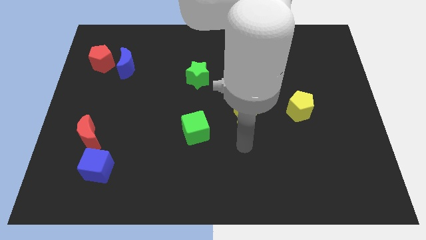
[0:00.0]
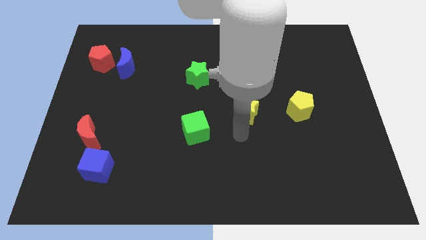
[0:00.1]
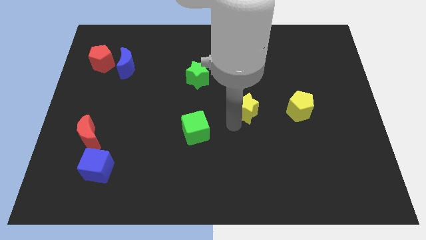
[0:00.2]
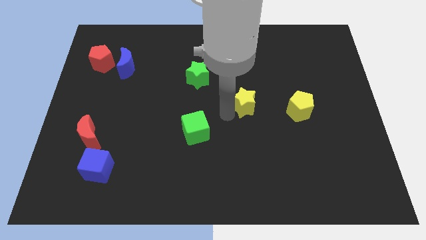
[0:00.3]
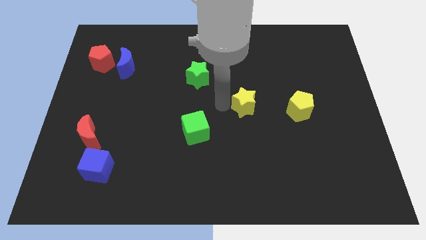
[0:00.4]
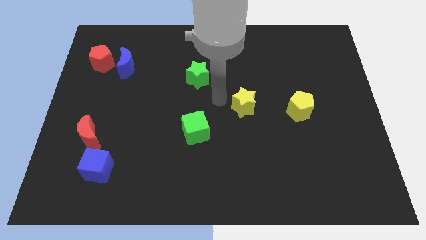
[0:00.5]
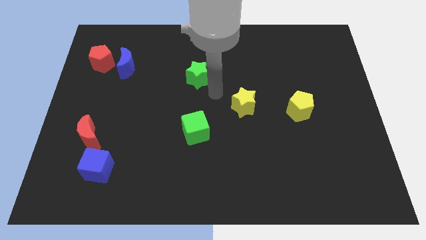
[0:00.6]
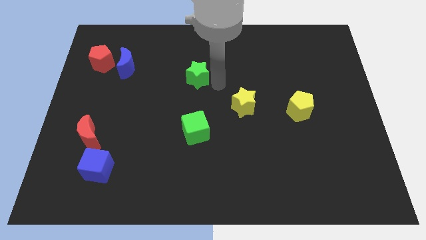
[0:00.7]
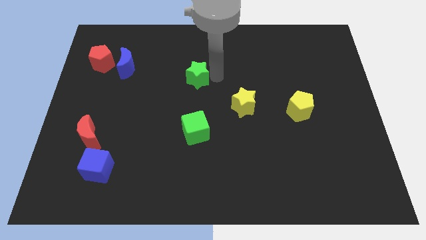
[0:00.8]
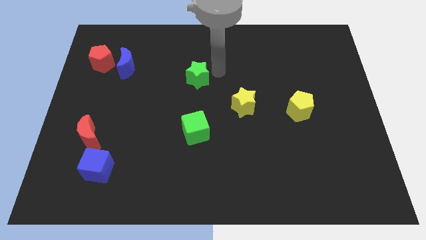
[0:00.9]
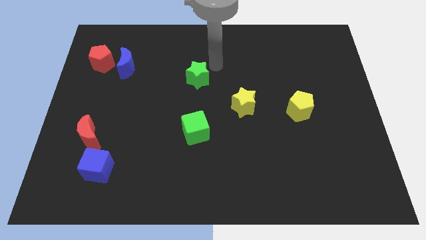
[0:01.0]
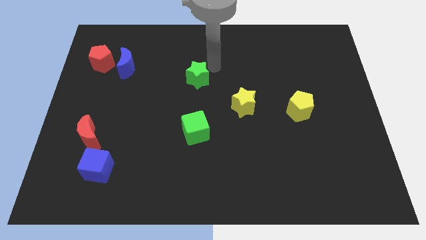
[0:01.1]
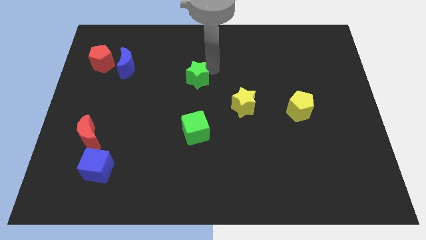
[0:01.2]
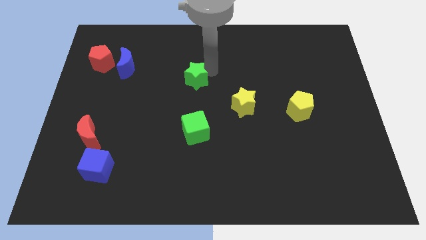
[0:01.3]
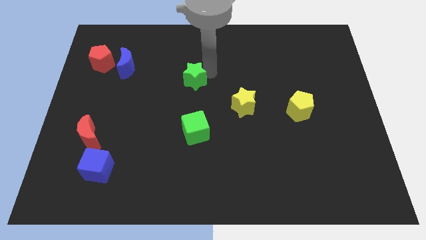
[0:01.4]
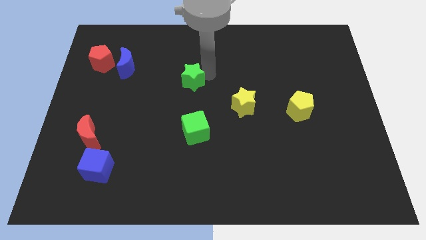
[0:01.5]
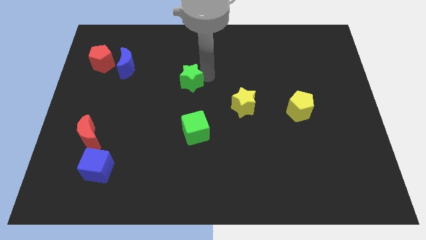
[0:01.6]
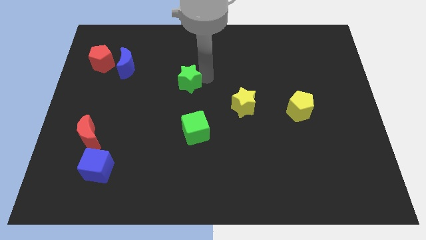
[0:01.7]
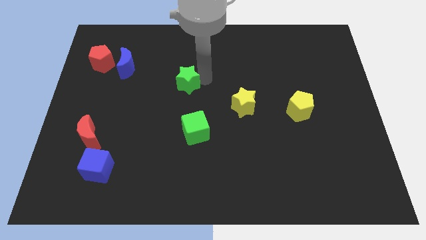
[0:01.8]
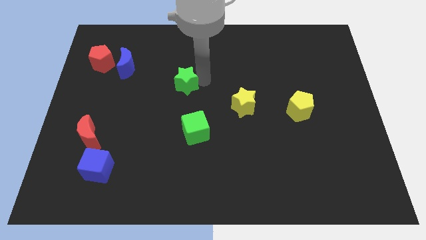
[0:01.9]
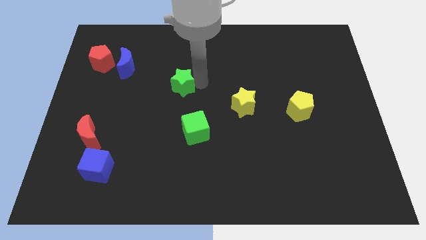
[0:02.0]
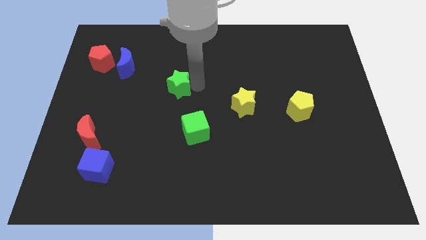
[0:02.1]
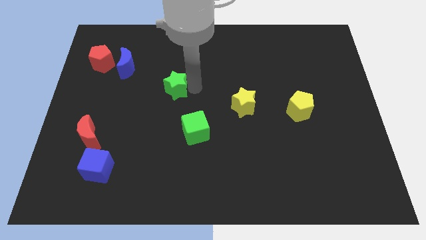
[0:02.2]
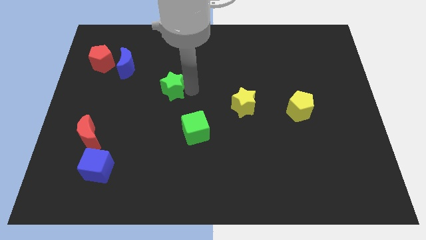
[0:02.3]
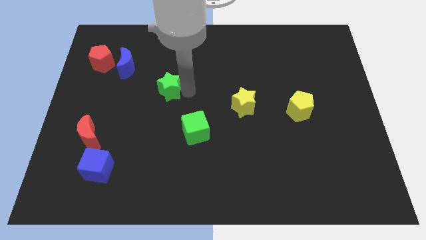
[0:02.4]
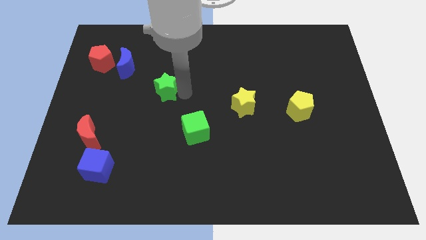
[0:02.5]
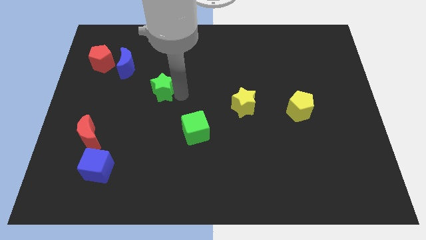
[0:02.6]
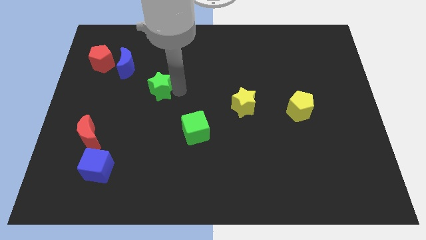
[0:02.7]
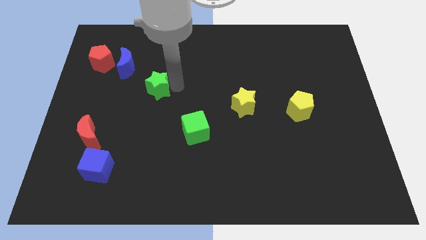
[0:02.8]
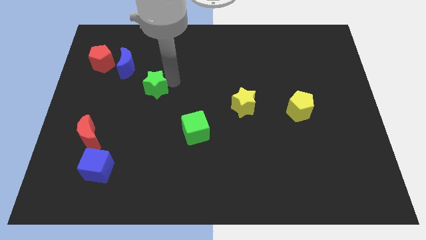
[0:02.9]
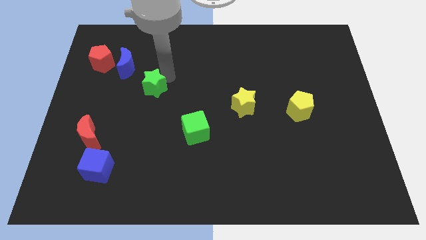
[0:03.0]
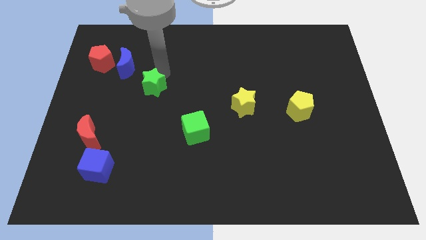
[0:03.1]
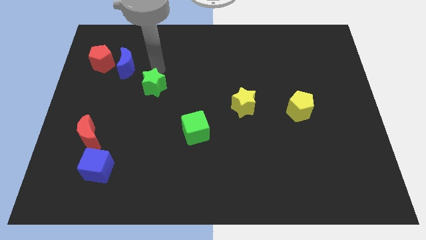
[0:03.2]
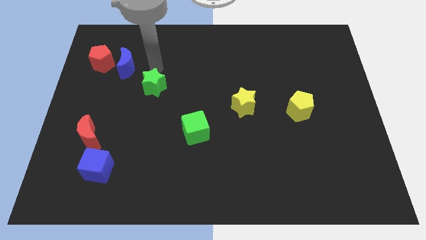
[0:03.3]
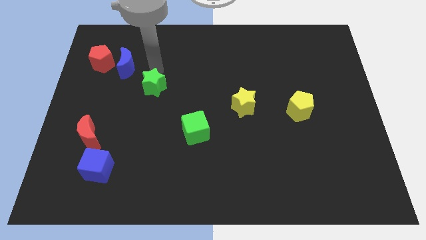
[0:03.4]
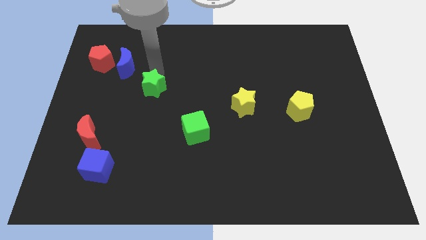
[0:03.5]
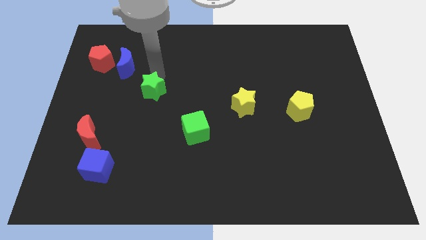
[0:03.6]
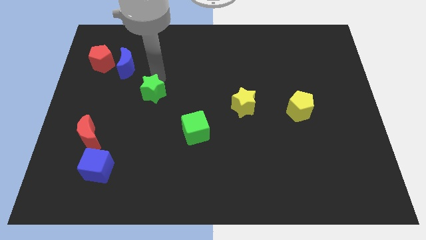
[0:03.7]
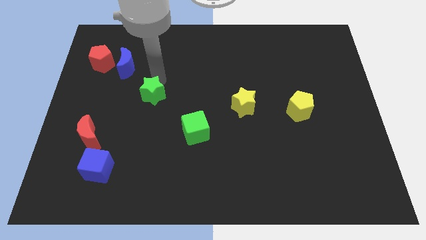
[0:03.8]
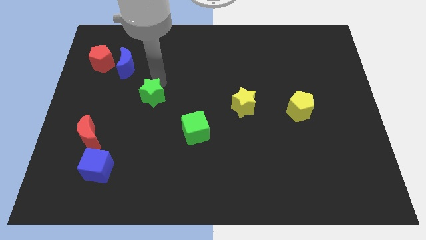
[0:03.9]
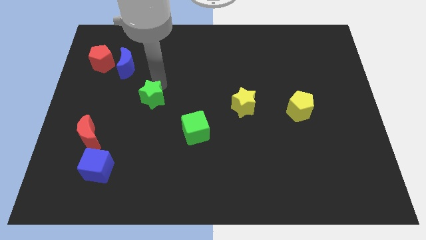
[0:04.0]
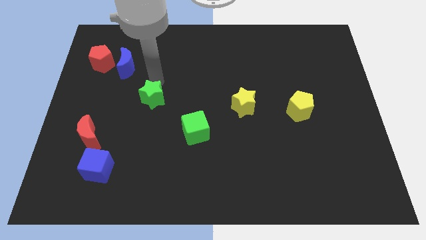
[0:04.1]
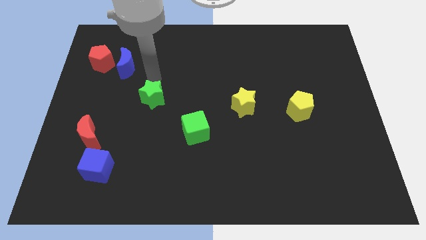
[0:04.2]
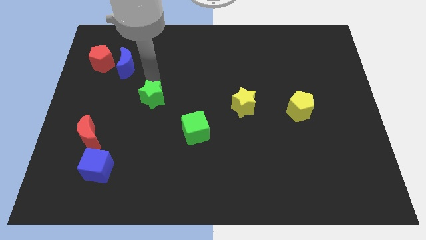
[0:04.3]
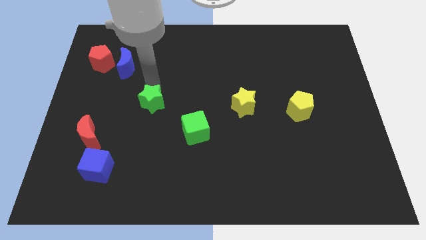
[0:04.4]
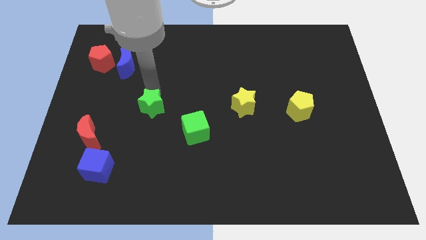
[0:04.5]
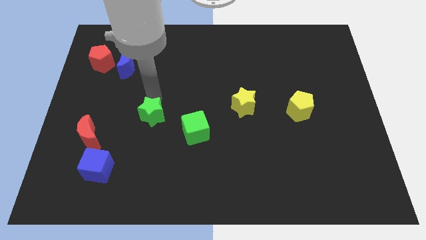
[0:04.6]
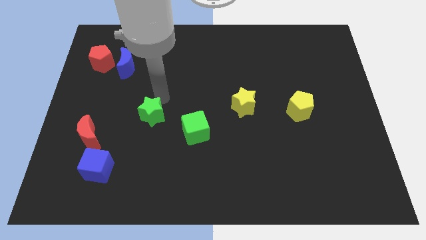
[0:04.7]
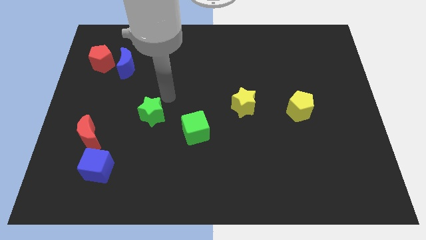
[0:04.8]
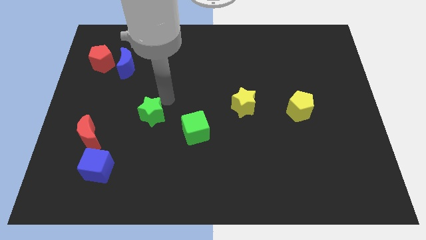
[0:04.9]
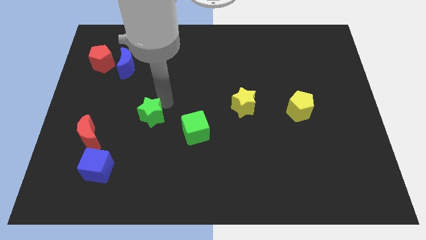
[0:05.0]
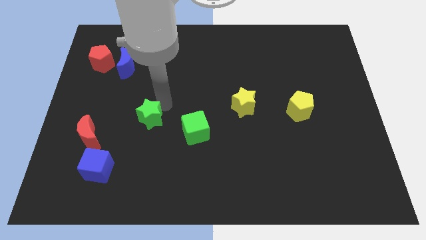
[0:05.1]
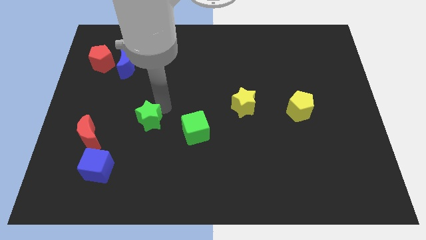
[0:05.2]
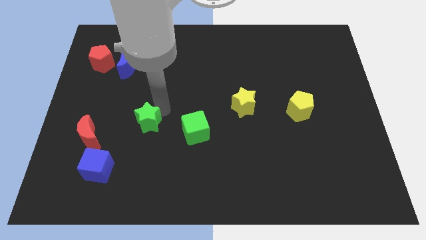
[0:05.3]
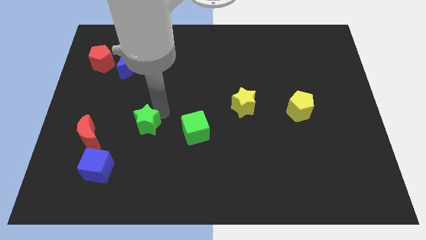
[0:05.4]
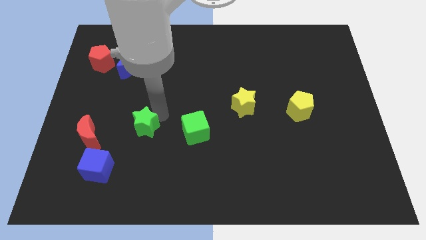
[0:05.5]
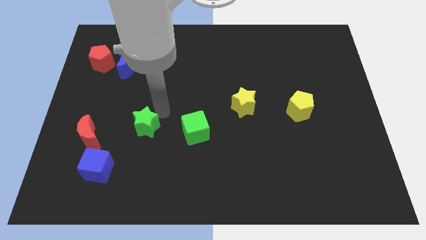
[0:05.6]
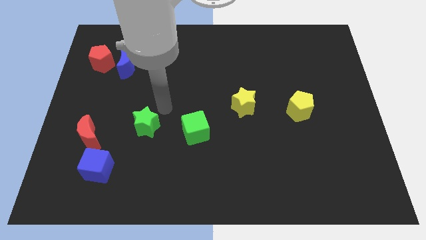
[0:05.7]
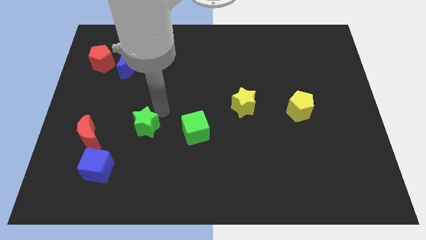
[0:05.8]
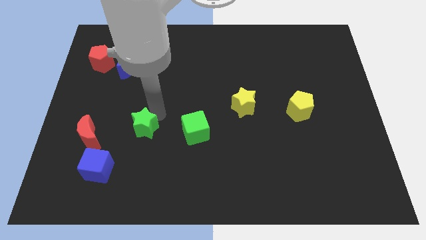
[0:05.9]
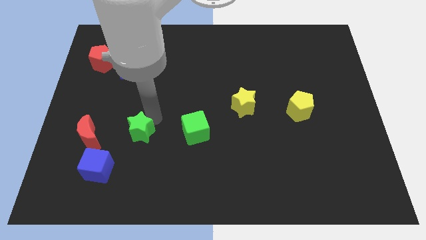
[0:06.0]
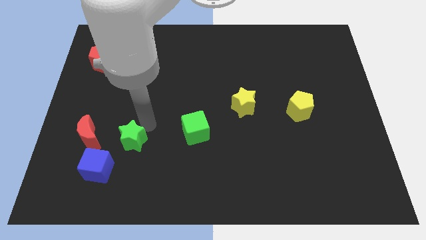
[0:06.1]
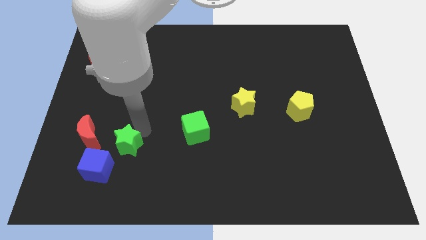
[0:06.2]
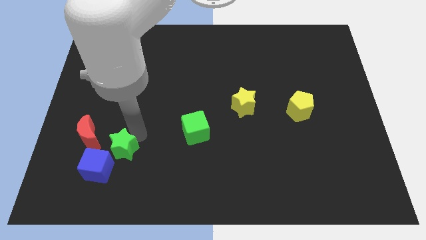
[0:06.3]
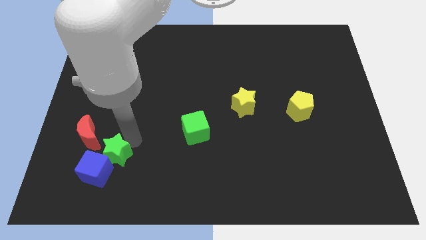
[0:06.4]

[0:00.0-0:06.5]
move the green star close to the blue cube

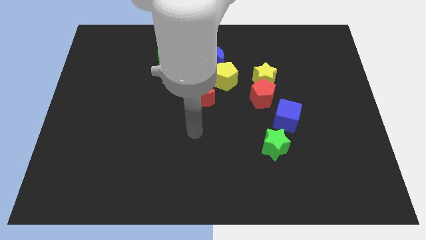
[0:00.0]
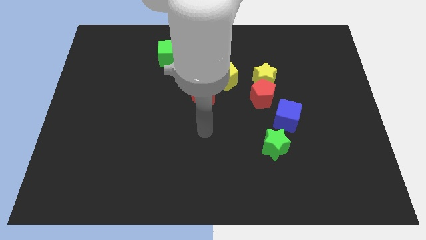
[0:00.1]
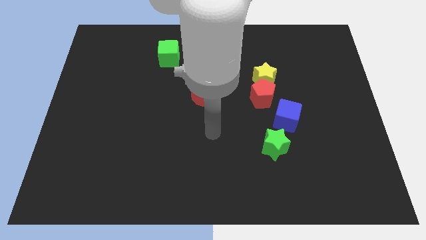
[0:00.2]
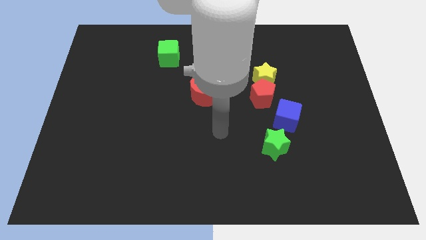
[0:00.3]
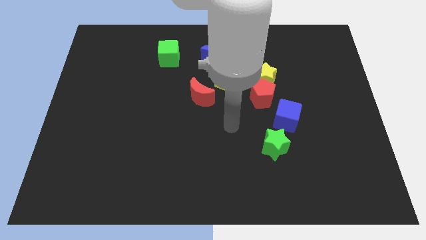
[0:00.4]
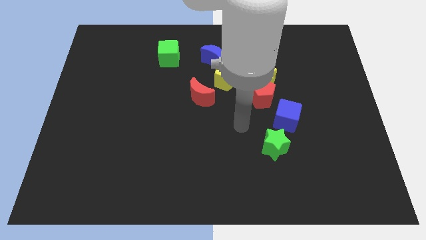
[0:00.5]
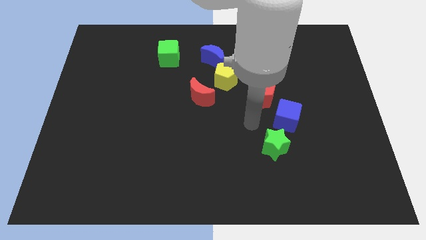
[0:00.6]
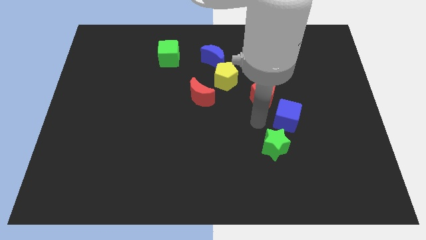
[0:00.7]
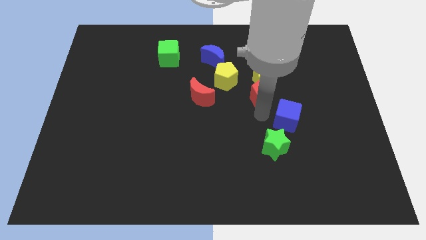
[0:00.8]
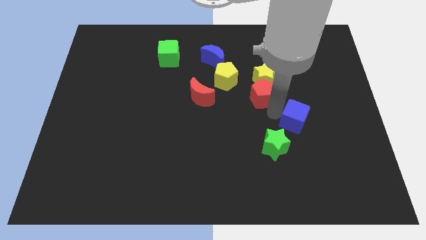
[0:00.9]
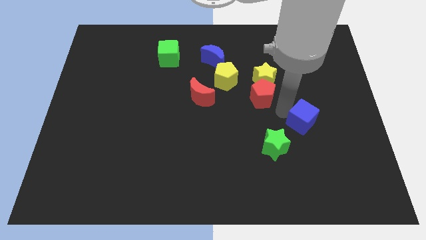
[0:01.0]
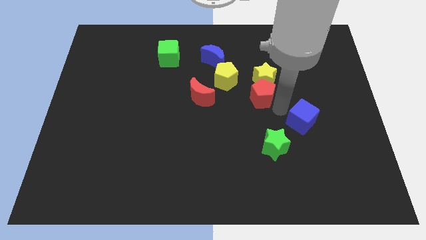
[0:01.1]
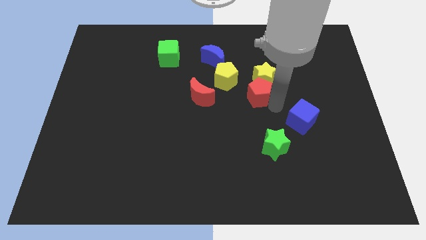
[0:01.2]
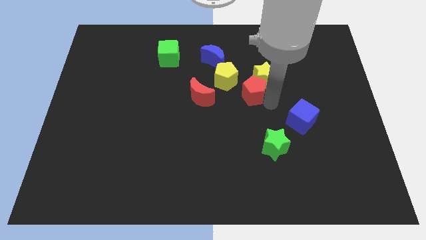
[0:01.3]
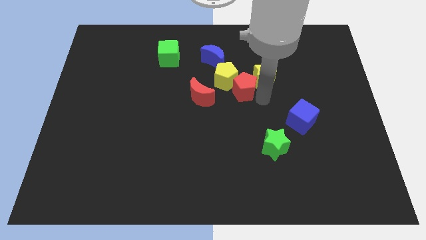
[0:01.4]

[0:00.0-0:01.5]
push the red pentagon to the yellow pentagon
